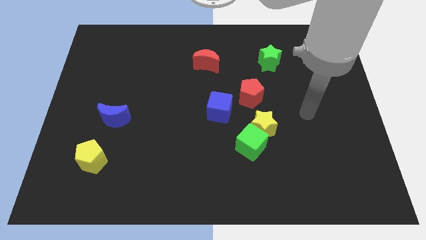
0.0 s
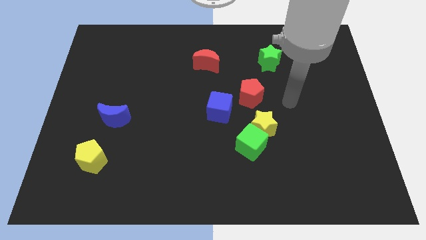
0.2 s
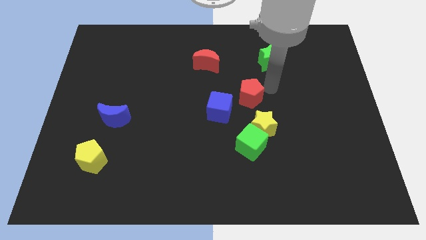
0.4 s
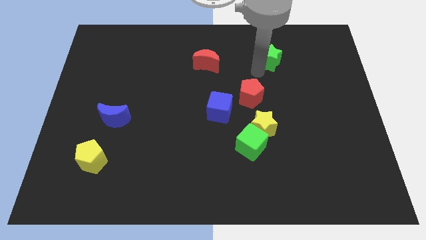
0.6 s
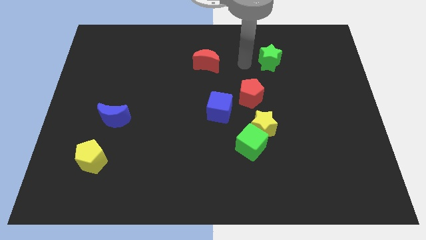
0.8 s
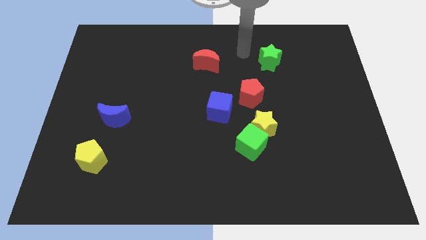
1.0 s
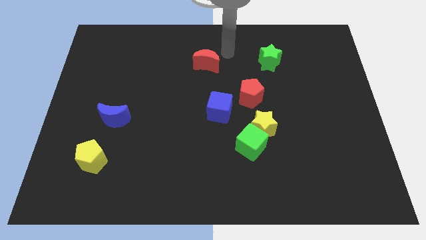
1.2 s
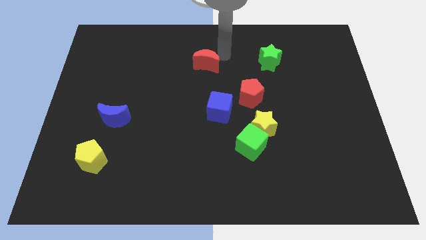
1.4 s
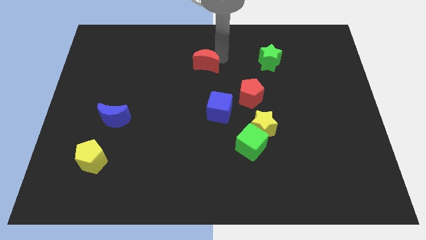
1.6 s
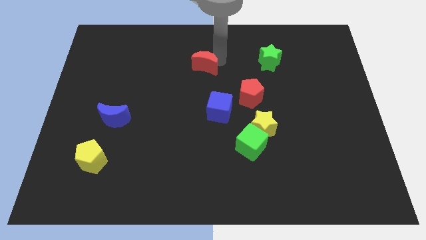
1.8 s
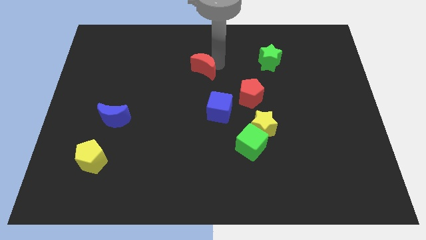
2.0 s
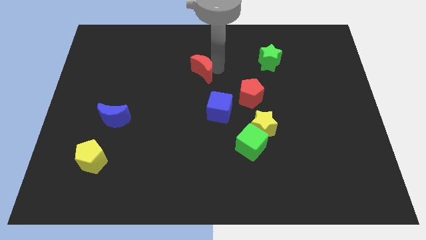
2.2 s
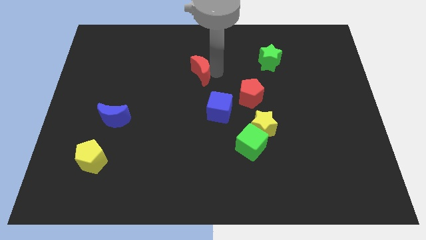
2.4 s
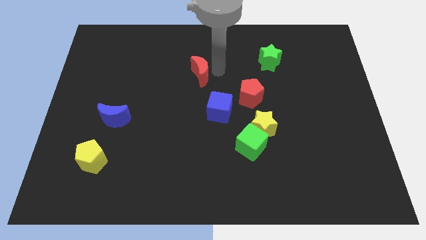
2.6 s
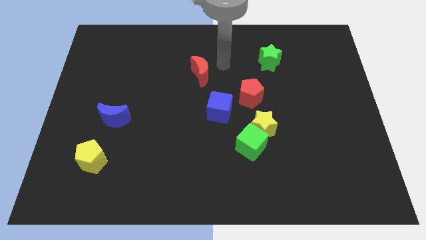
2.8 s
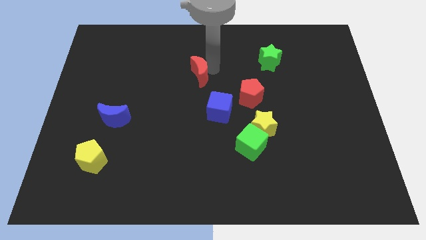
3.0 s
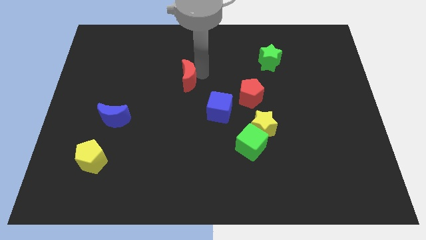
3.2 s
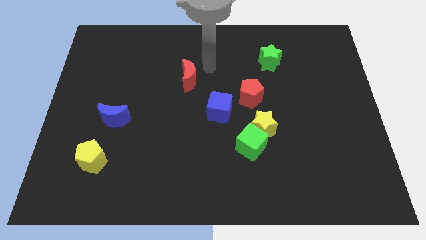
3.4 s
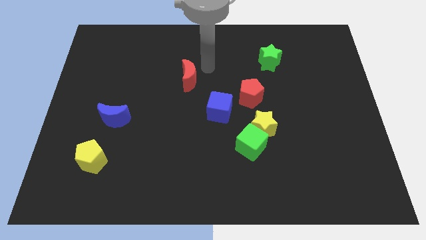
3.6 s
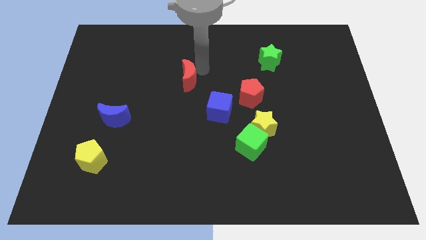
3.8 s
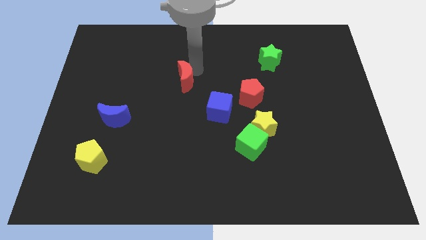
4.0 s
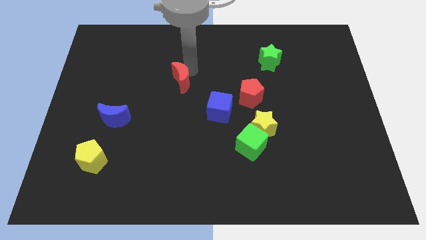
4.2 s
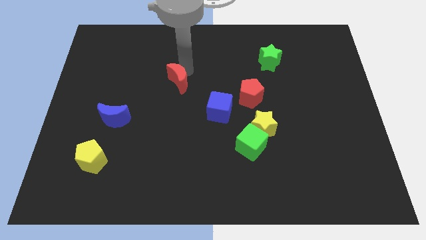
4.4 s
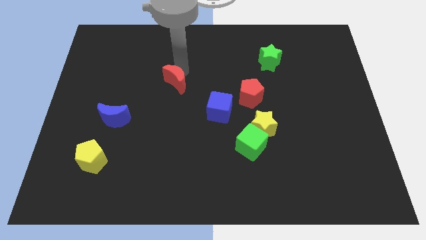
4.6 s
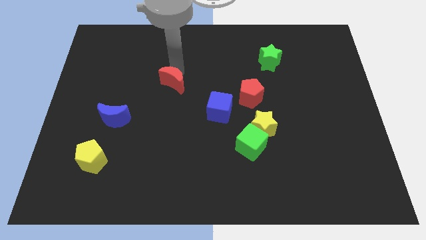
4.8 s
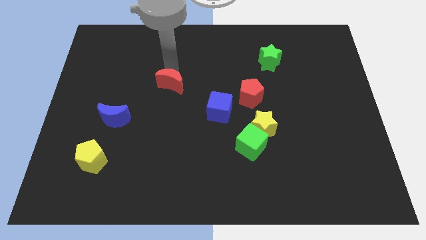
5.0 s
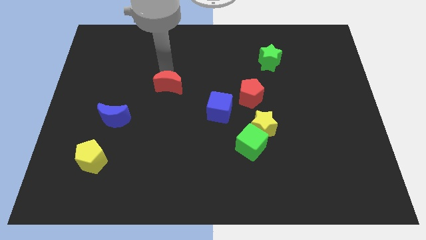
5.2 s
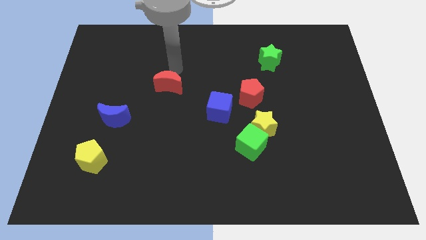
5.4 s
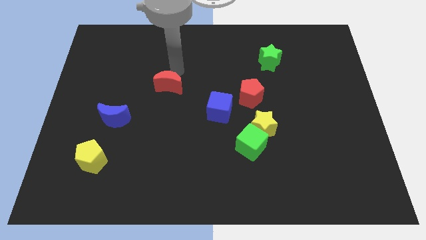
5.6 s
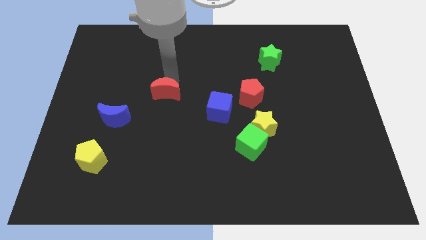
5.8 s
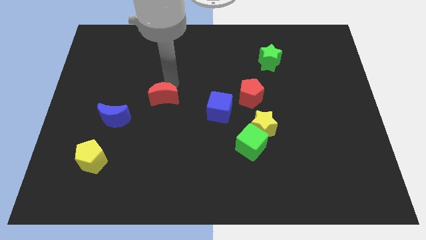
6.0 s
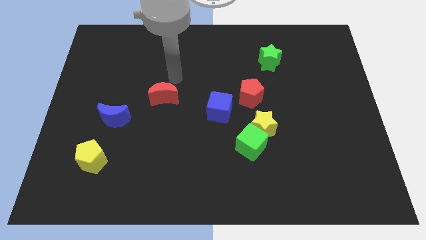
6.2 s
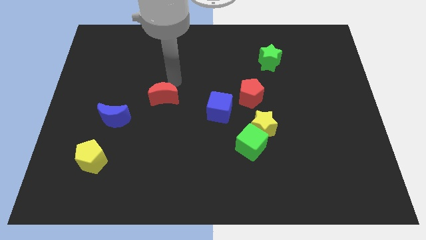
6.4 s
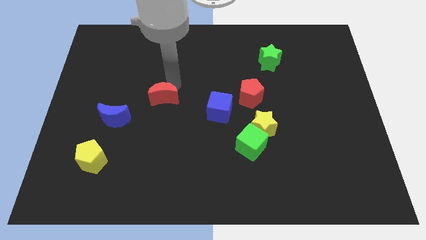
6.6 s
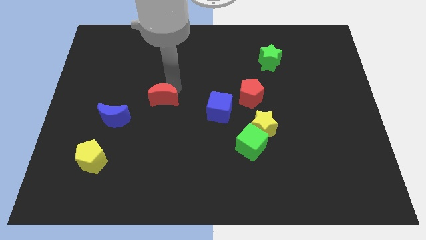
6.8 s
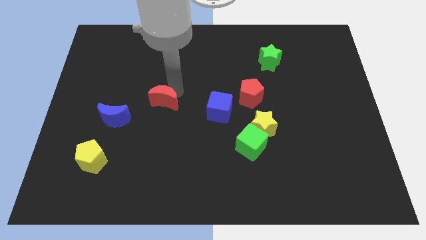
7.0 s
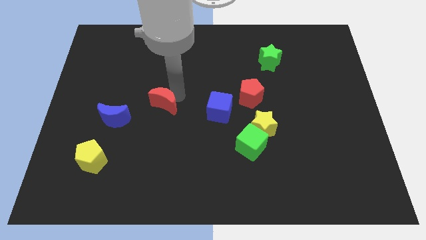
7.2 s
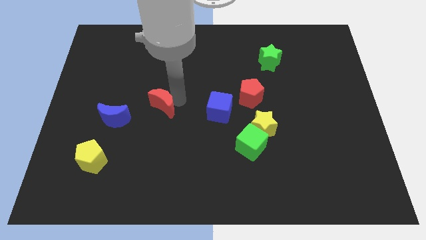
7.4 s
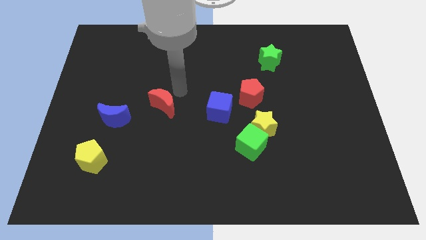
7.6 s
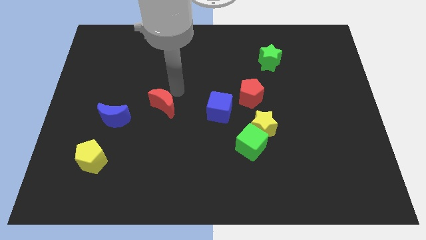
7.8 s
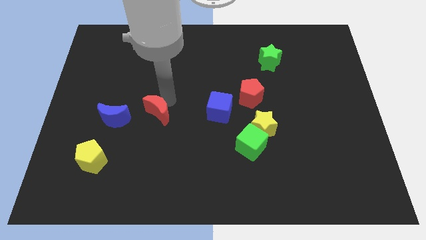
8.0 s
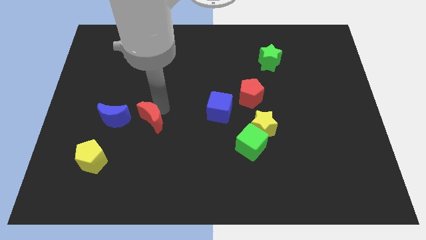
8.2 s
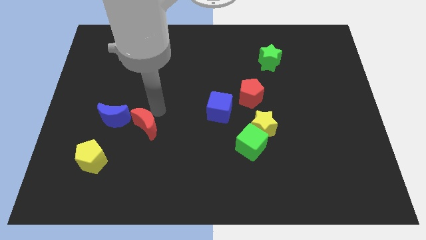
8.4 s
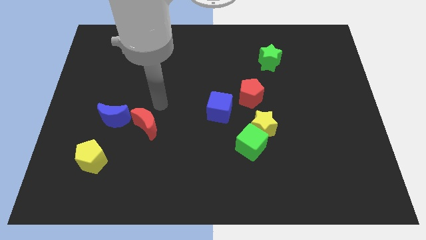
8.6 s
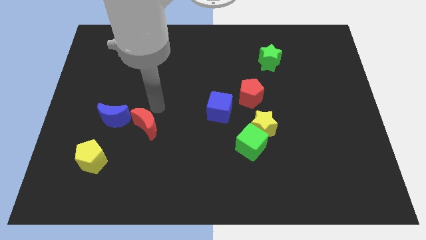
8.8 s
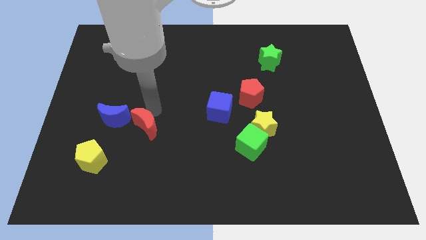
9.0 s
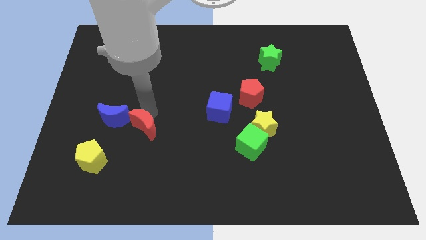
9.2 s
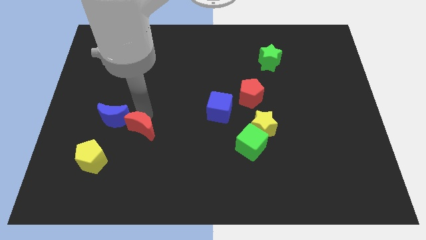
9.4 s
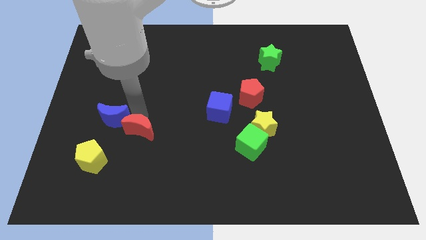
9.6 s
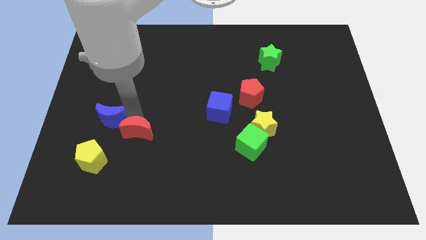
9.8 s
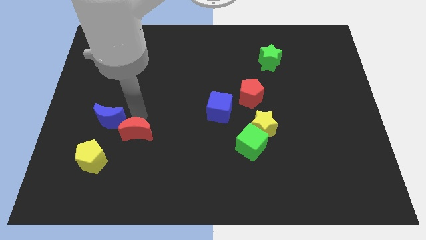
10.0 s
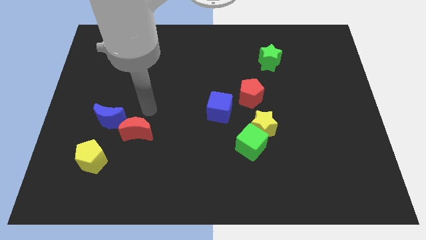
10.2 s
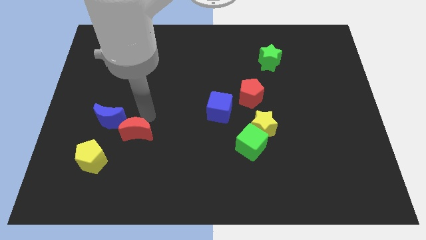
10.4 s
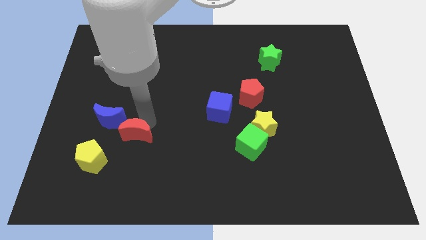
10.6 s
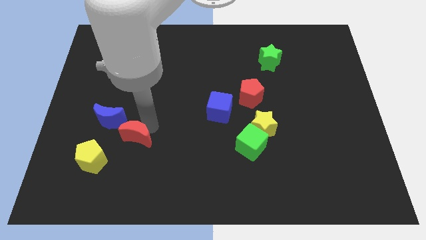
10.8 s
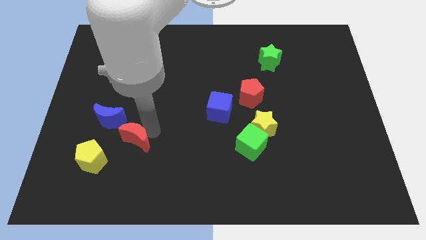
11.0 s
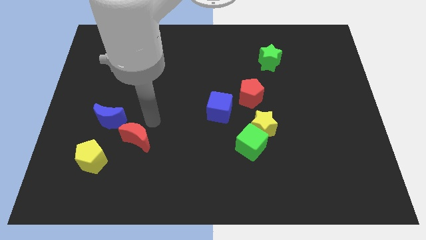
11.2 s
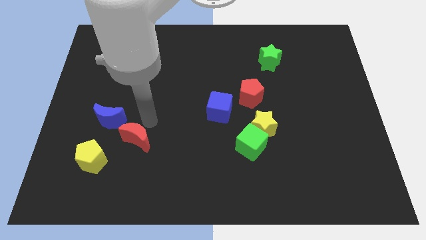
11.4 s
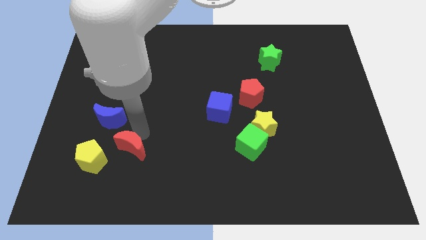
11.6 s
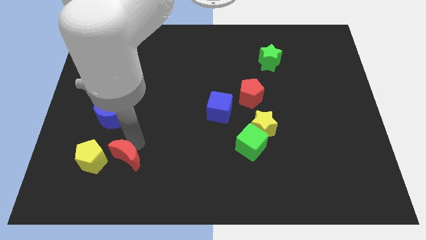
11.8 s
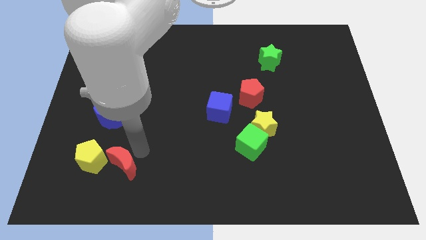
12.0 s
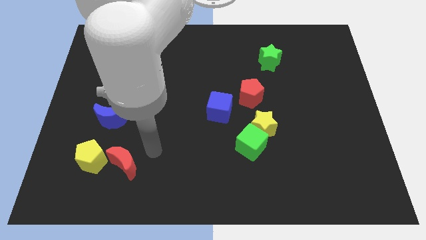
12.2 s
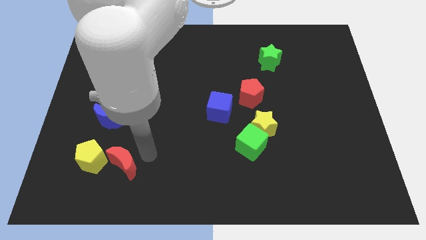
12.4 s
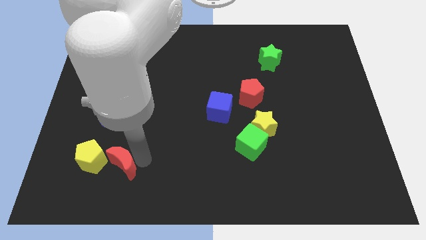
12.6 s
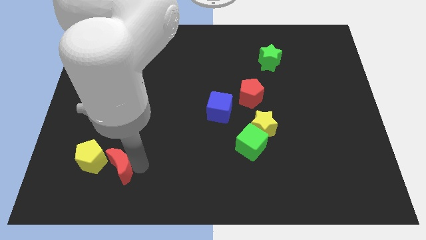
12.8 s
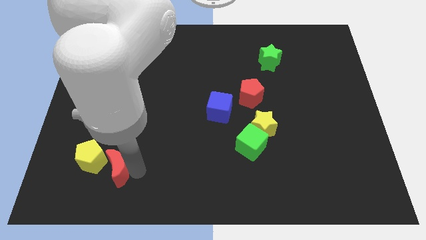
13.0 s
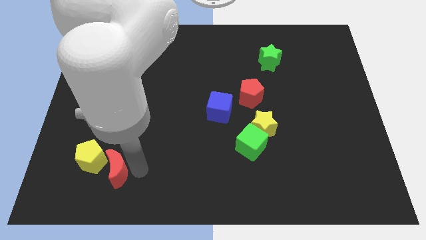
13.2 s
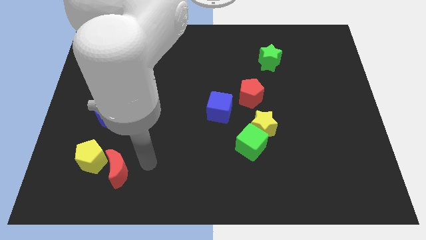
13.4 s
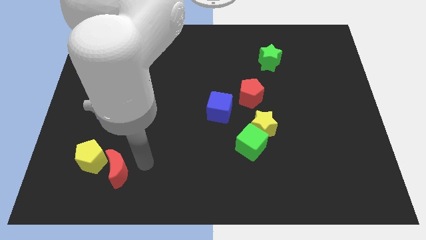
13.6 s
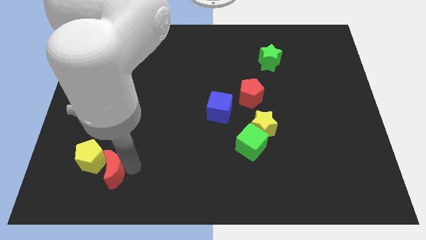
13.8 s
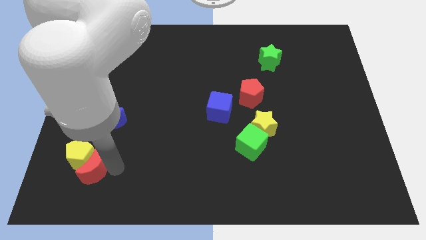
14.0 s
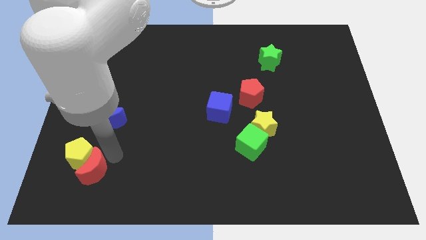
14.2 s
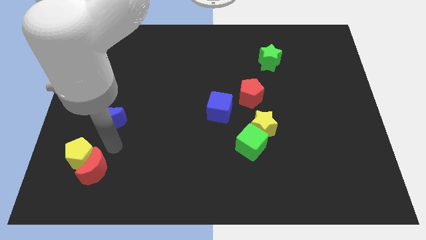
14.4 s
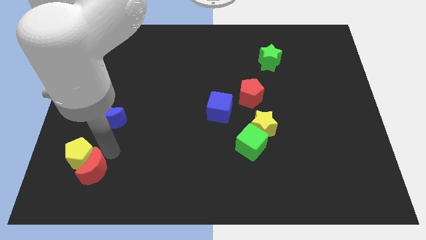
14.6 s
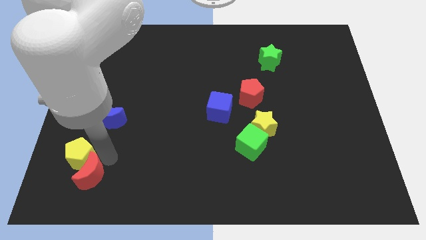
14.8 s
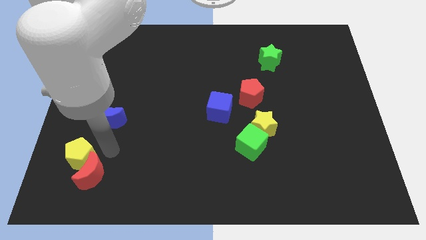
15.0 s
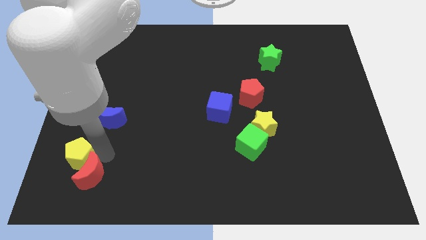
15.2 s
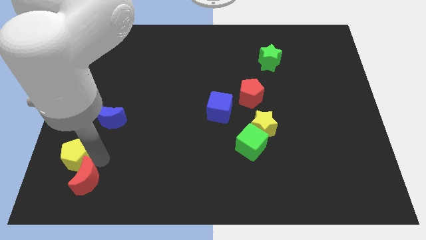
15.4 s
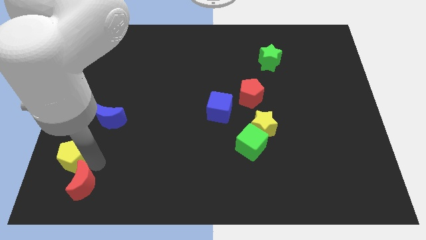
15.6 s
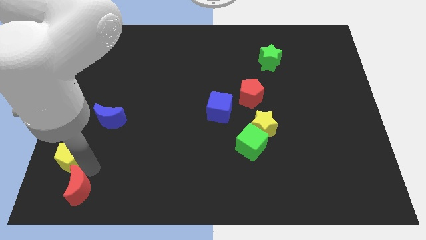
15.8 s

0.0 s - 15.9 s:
move the red moon to the lower left corner
